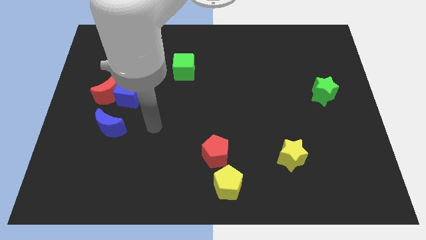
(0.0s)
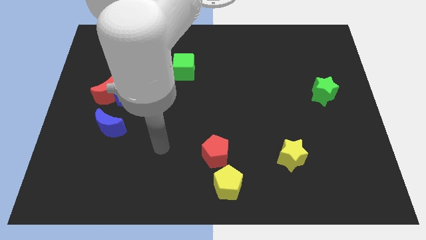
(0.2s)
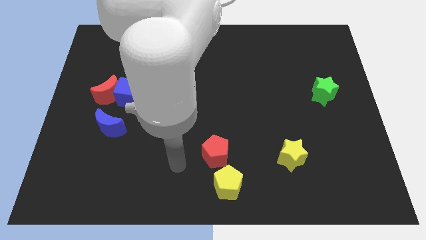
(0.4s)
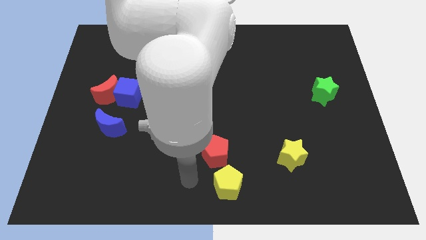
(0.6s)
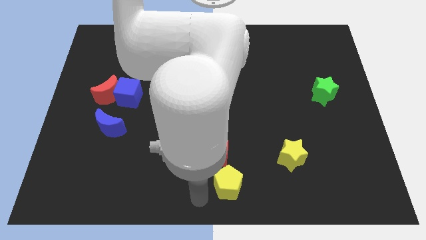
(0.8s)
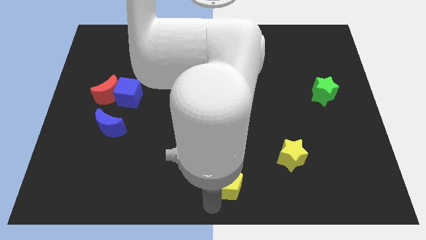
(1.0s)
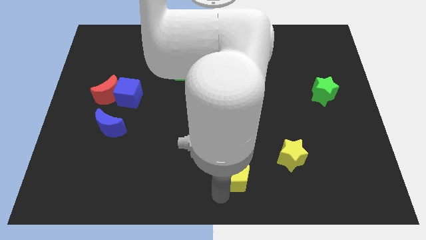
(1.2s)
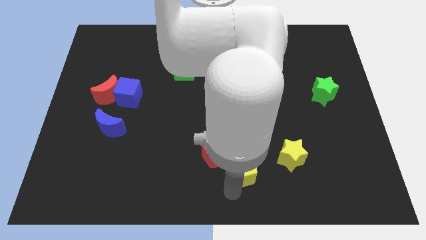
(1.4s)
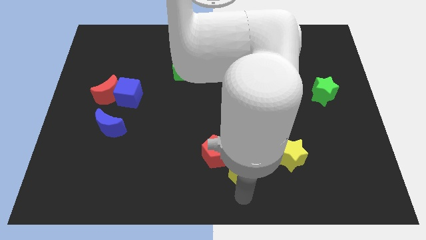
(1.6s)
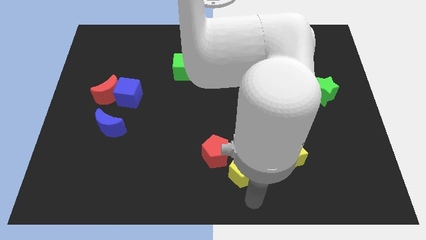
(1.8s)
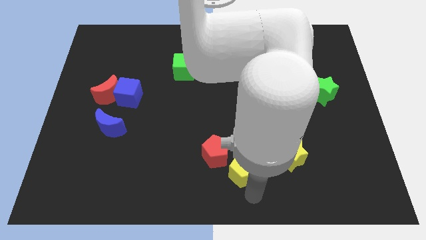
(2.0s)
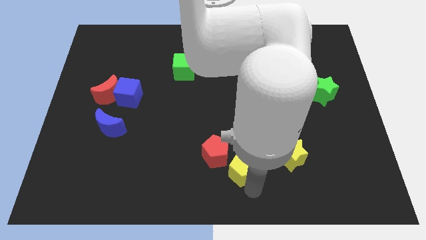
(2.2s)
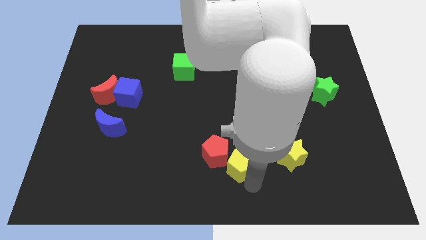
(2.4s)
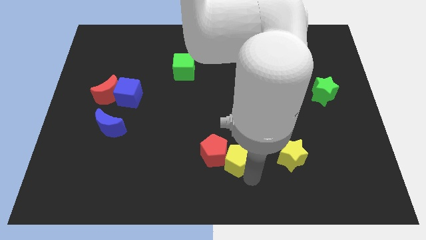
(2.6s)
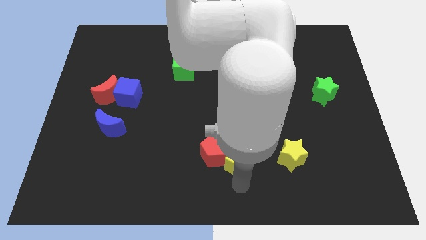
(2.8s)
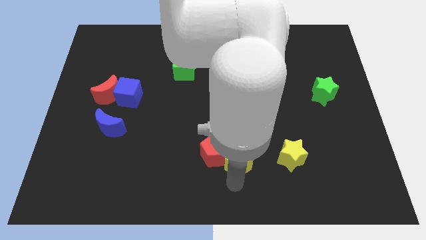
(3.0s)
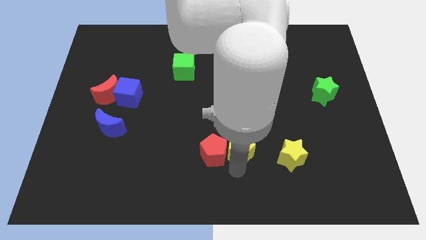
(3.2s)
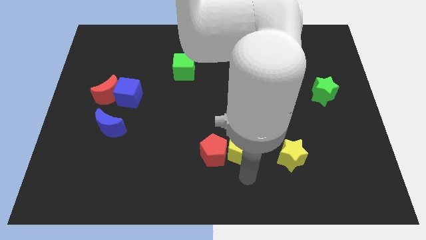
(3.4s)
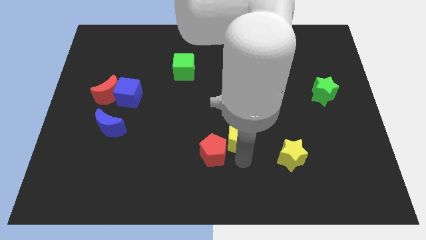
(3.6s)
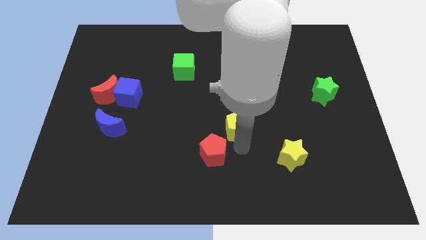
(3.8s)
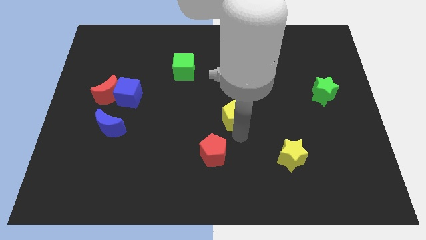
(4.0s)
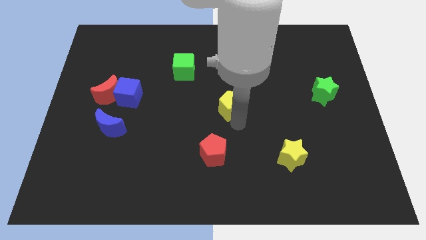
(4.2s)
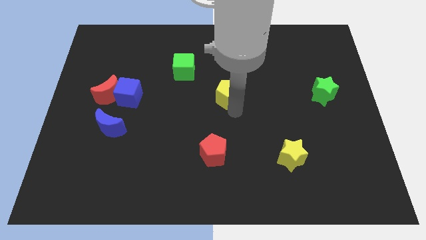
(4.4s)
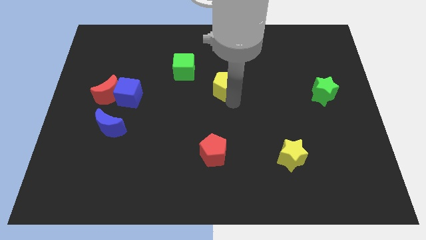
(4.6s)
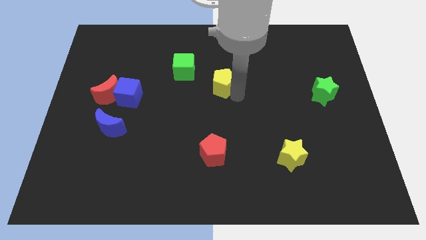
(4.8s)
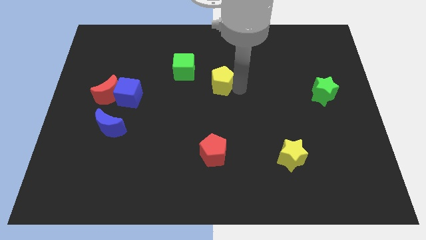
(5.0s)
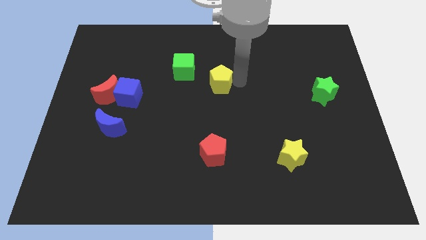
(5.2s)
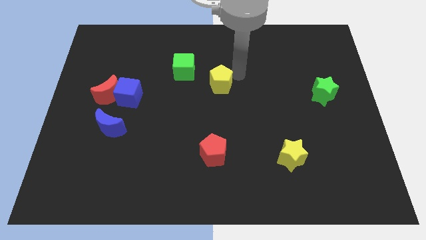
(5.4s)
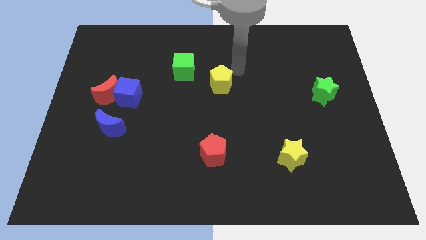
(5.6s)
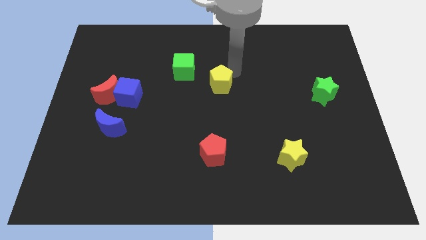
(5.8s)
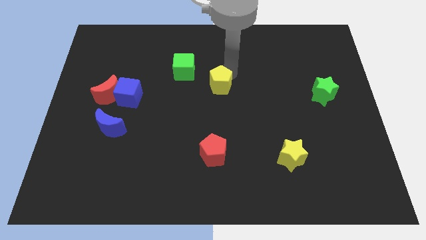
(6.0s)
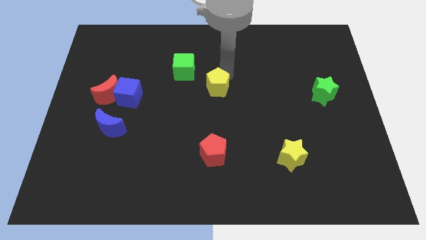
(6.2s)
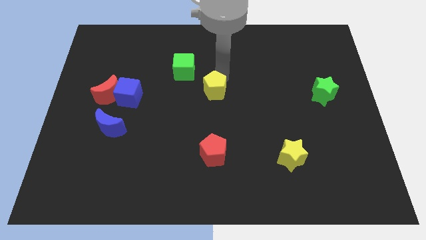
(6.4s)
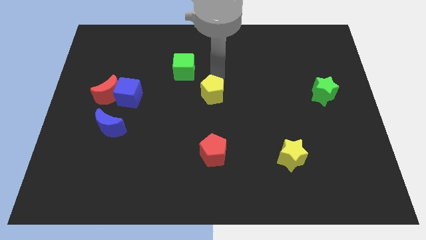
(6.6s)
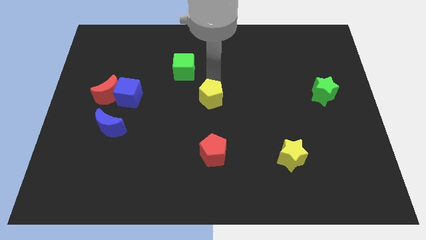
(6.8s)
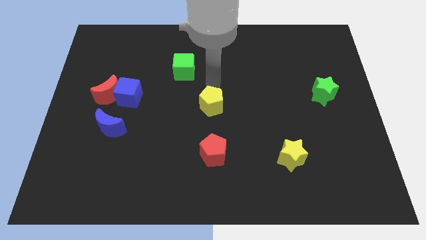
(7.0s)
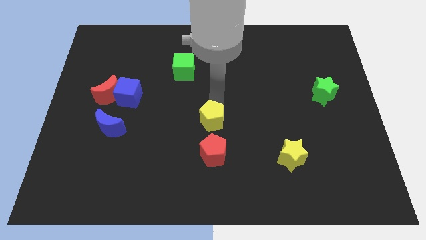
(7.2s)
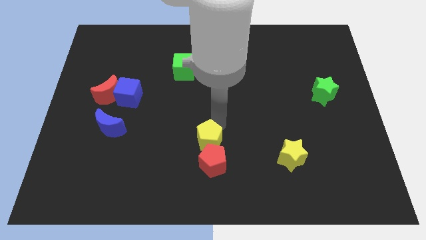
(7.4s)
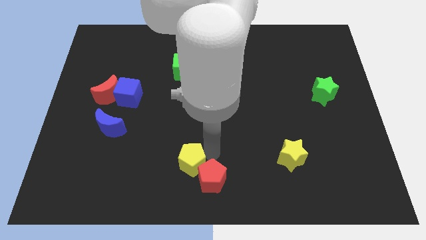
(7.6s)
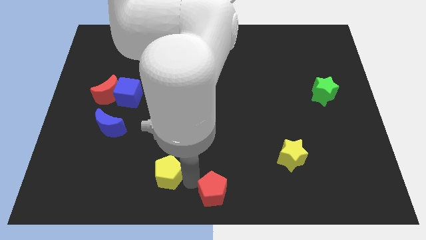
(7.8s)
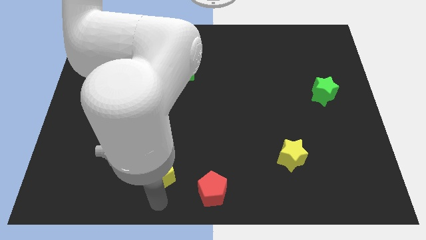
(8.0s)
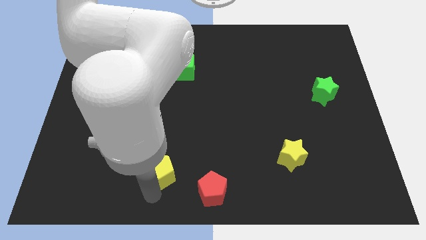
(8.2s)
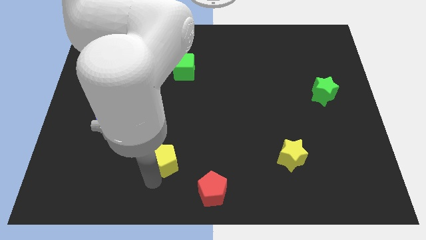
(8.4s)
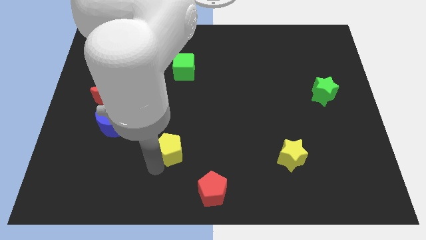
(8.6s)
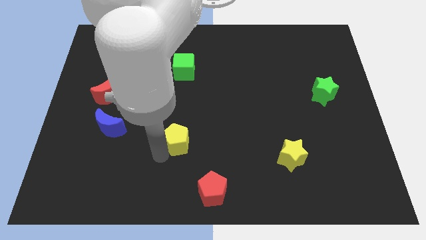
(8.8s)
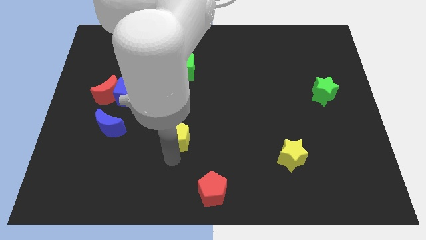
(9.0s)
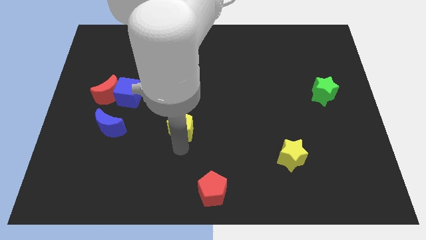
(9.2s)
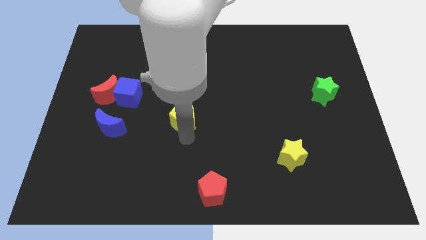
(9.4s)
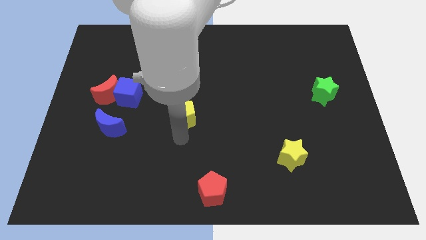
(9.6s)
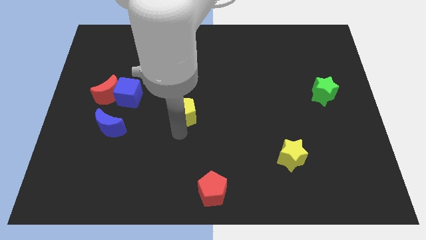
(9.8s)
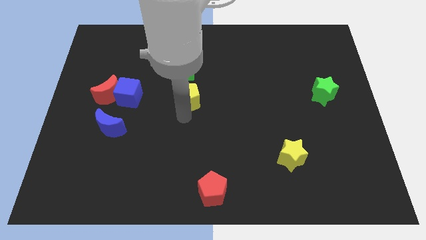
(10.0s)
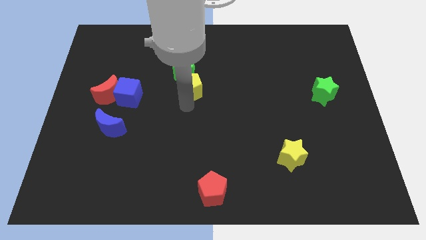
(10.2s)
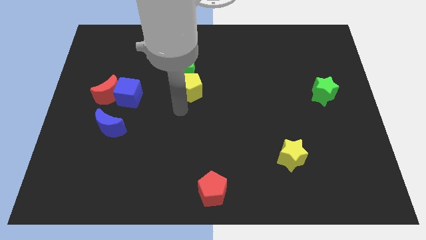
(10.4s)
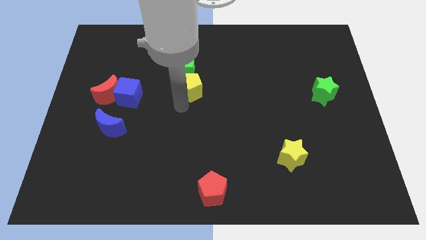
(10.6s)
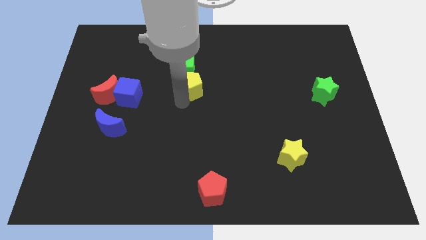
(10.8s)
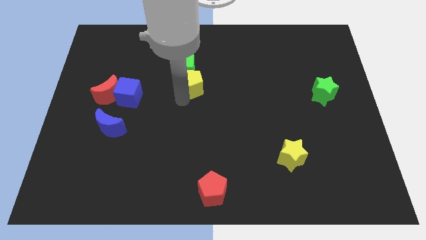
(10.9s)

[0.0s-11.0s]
move the yellow pentagon towards the green cube

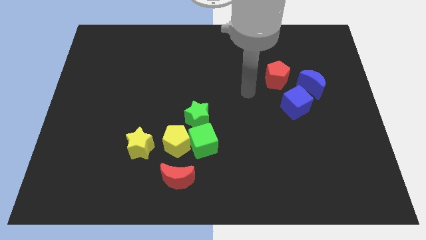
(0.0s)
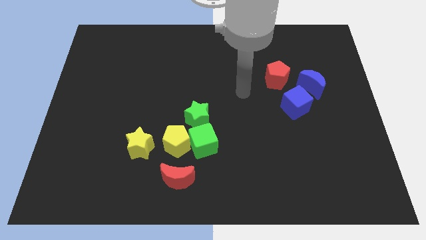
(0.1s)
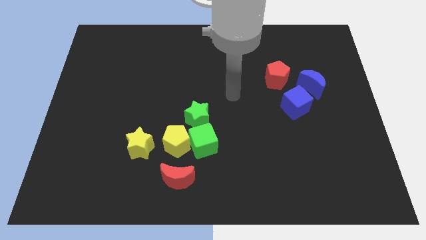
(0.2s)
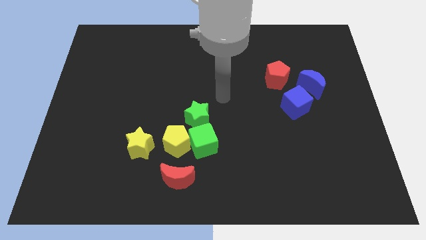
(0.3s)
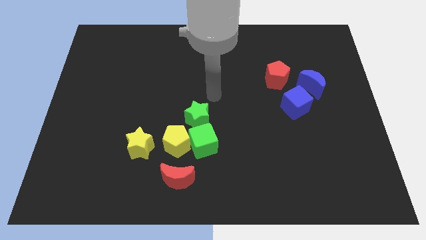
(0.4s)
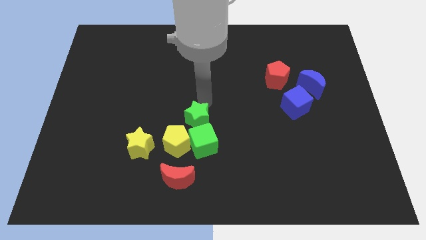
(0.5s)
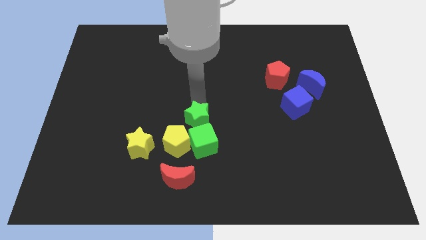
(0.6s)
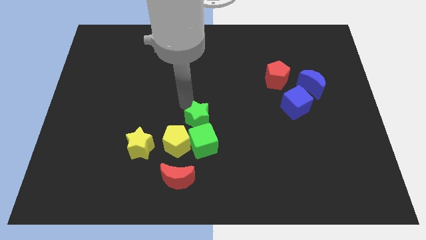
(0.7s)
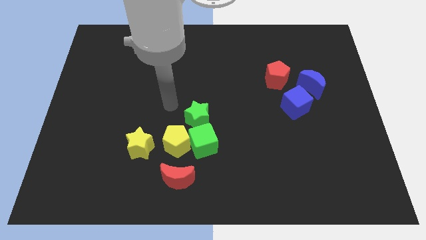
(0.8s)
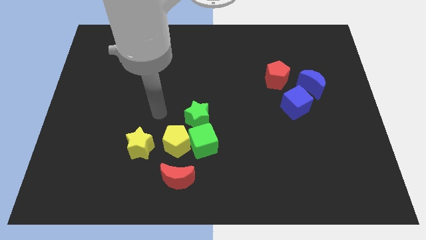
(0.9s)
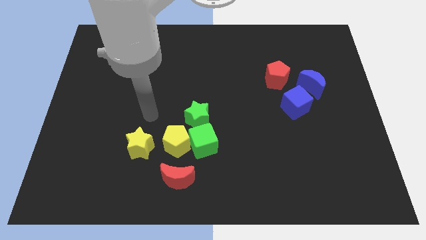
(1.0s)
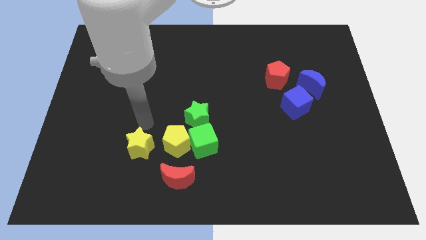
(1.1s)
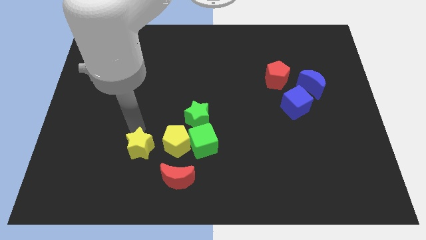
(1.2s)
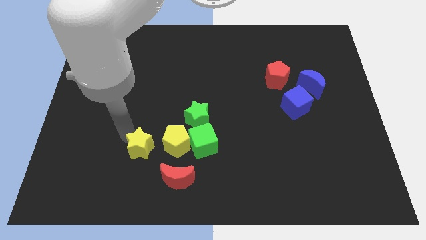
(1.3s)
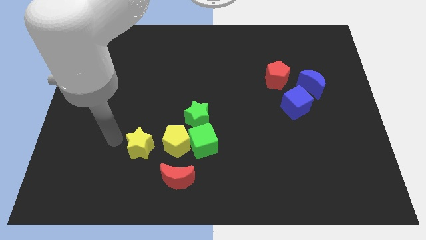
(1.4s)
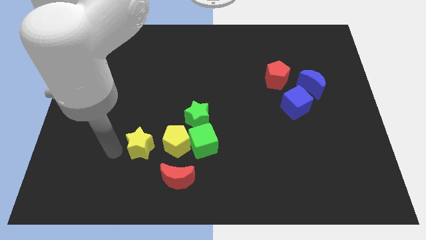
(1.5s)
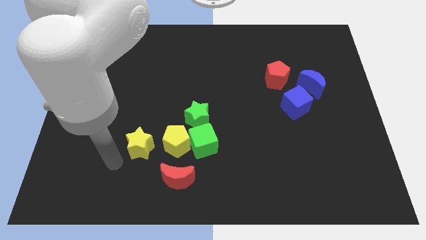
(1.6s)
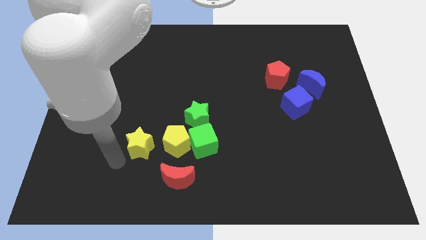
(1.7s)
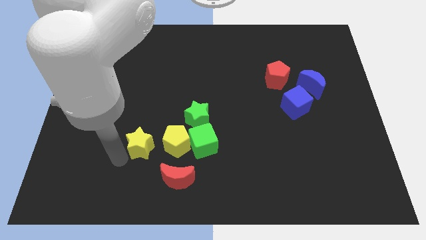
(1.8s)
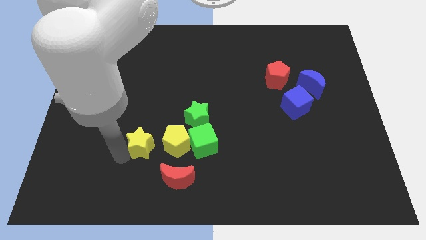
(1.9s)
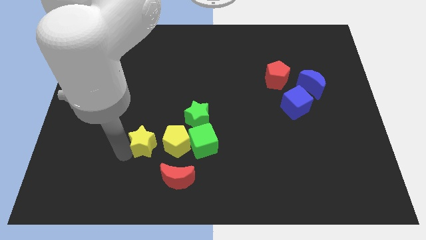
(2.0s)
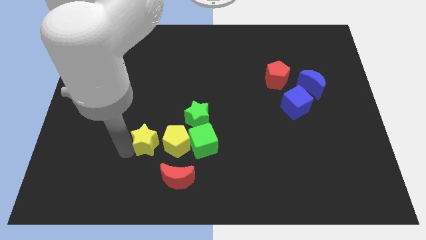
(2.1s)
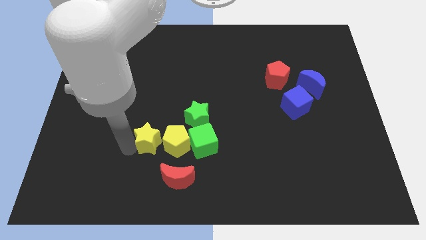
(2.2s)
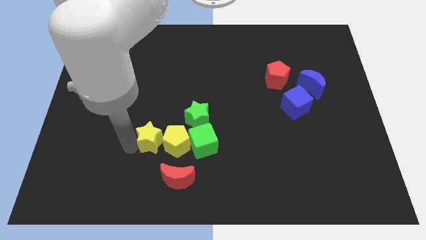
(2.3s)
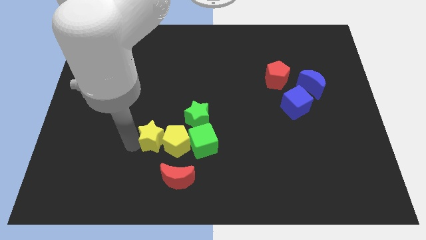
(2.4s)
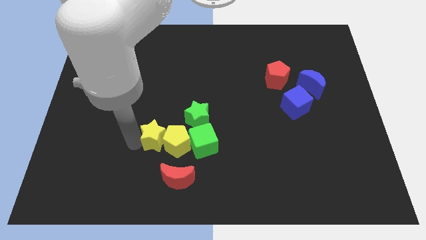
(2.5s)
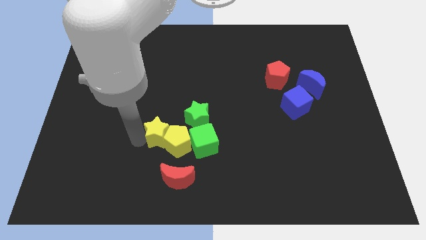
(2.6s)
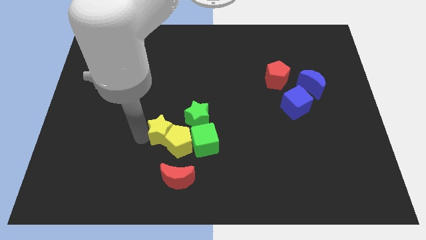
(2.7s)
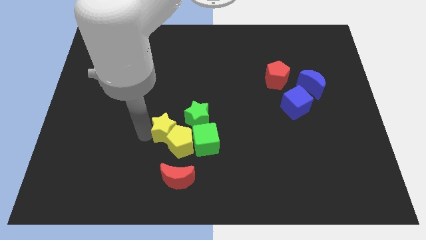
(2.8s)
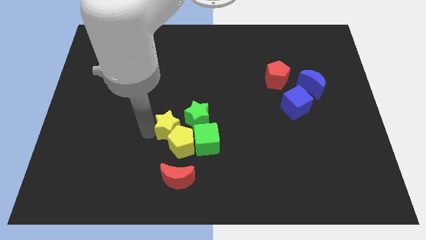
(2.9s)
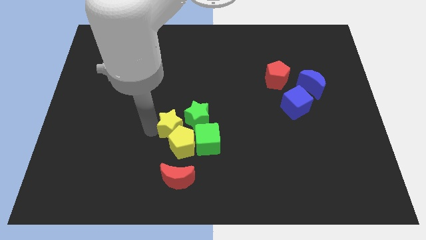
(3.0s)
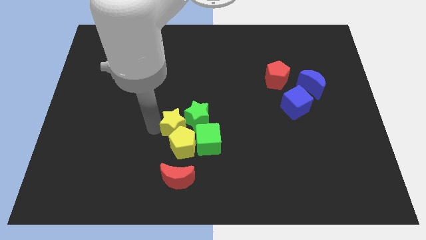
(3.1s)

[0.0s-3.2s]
slide the yellow star next to the green star
